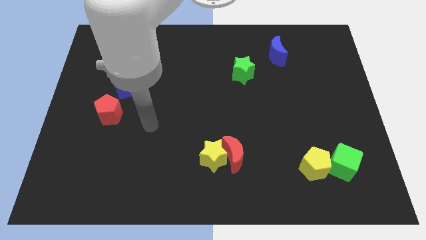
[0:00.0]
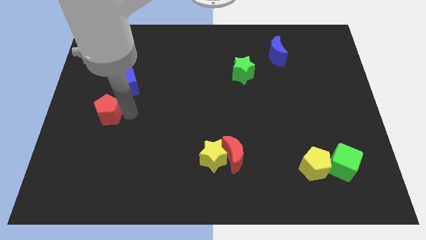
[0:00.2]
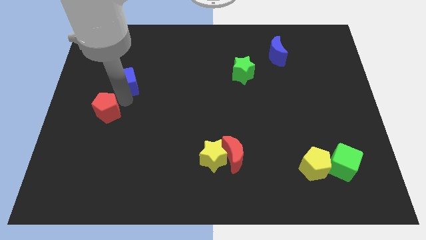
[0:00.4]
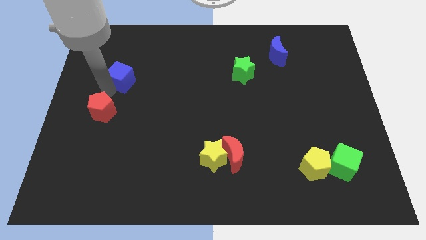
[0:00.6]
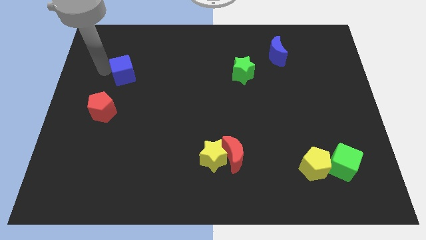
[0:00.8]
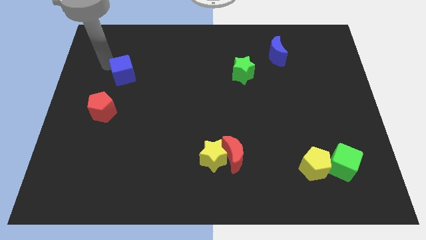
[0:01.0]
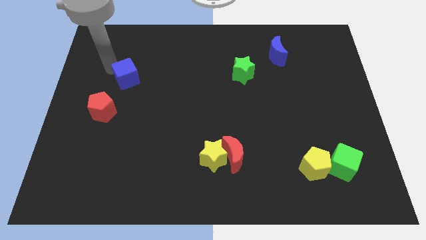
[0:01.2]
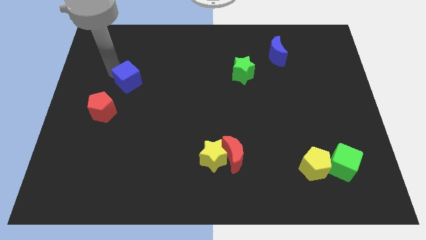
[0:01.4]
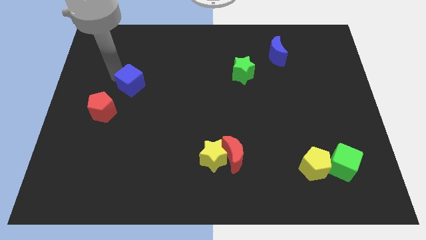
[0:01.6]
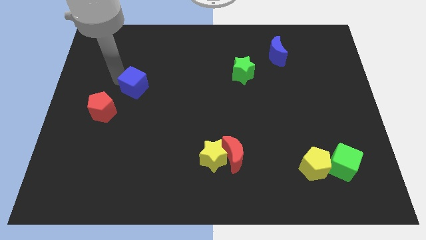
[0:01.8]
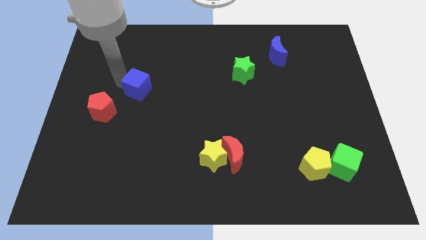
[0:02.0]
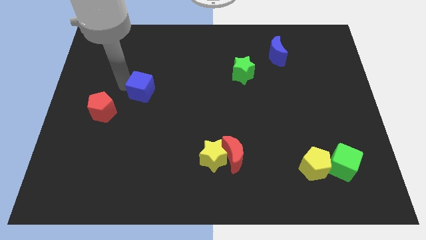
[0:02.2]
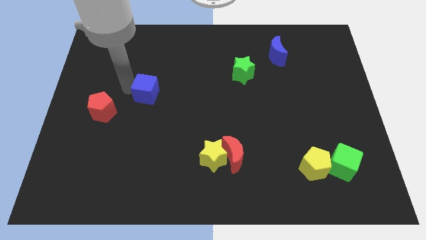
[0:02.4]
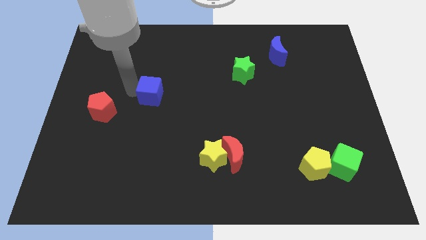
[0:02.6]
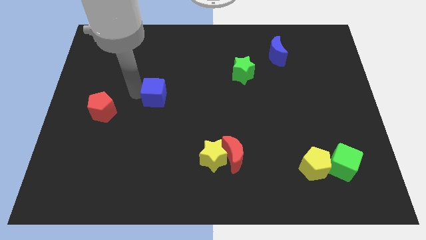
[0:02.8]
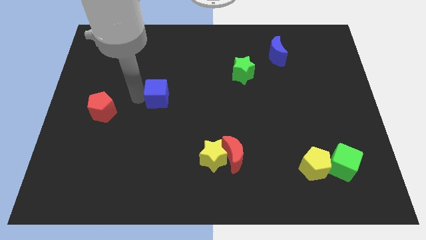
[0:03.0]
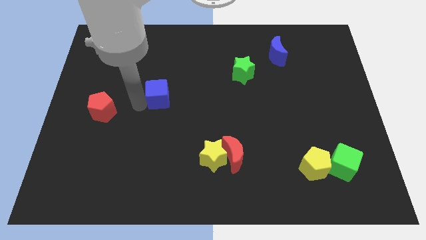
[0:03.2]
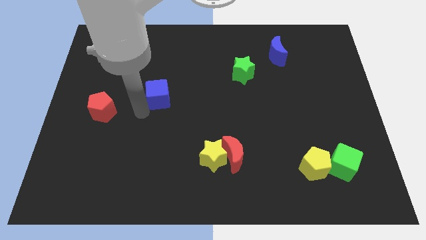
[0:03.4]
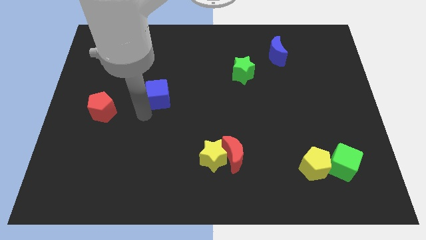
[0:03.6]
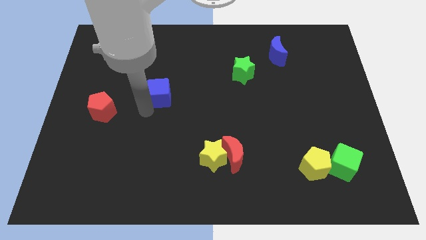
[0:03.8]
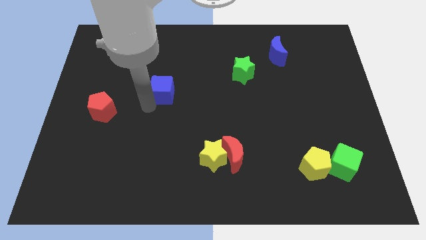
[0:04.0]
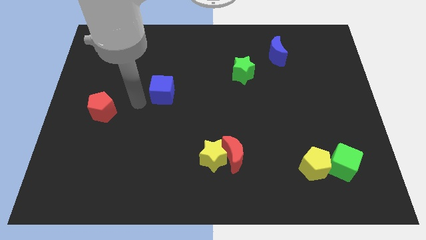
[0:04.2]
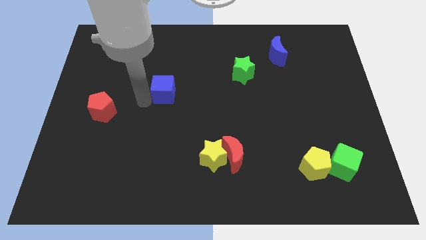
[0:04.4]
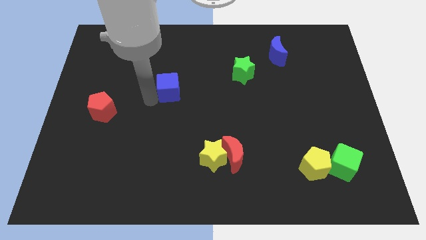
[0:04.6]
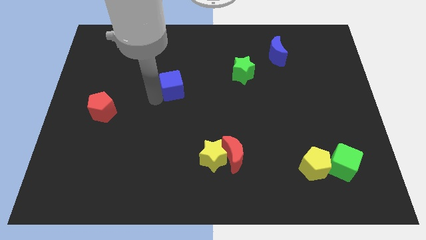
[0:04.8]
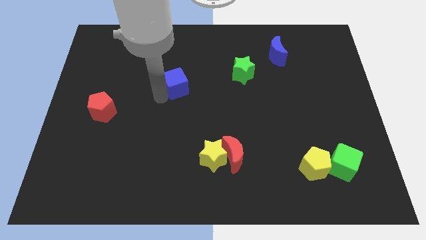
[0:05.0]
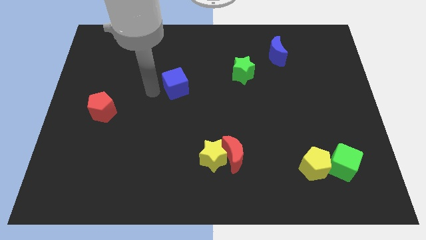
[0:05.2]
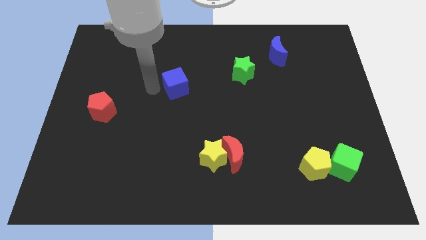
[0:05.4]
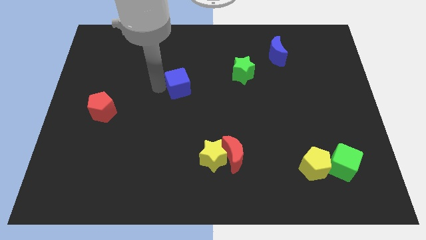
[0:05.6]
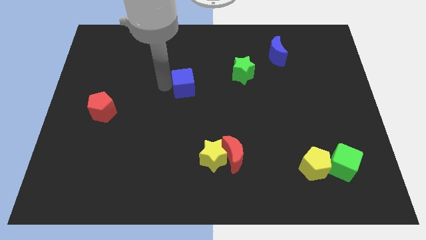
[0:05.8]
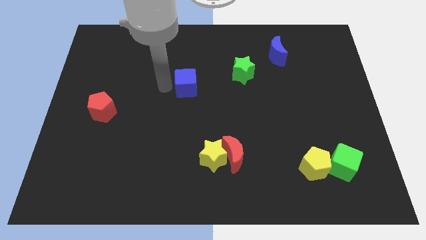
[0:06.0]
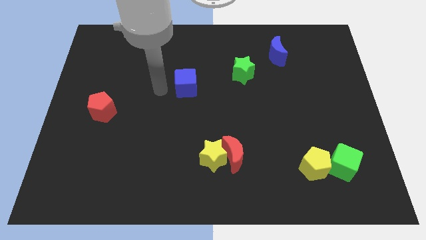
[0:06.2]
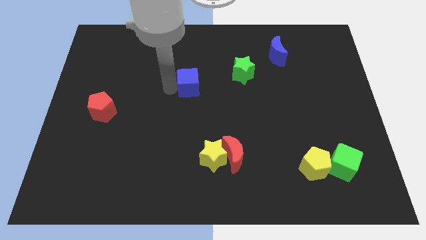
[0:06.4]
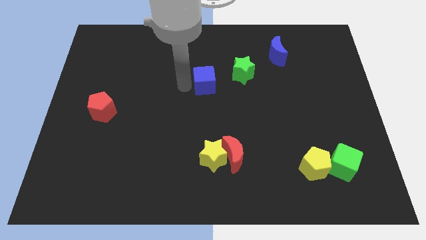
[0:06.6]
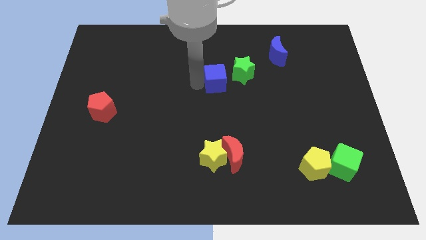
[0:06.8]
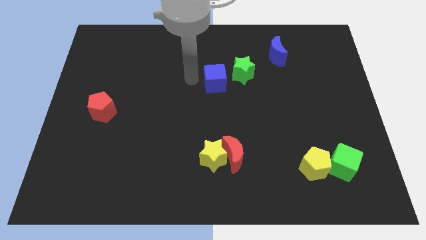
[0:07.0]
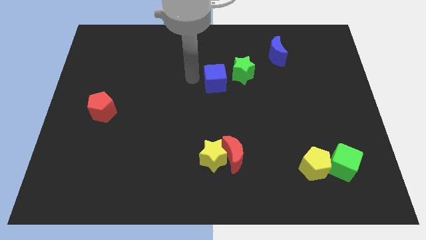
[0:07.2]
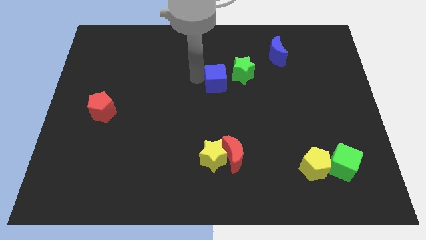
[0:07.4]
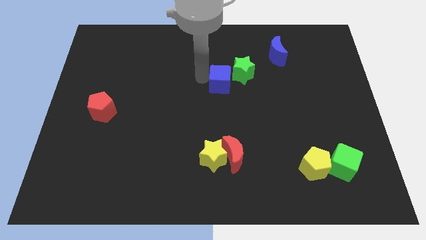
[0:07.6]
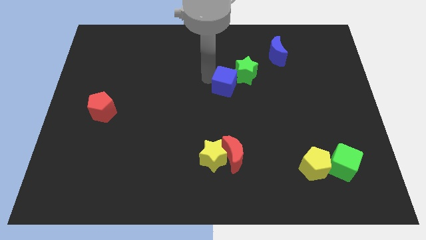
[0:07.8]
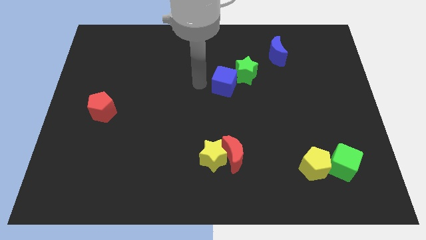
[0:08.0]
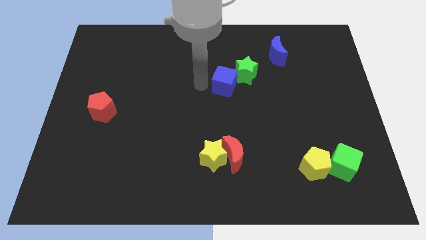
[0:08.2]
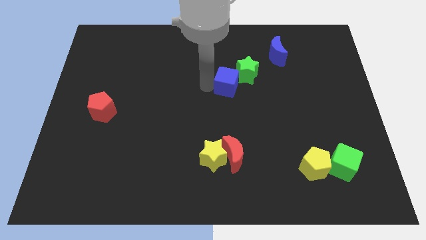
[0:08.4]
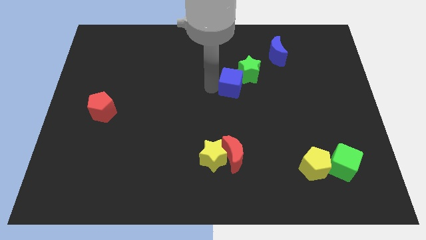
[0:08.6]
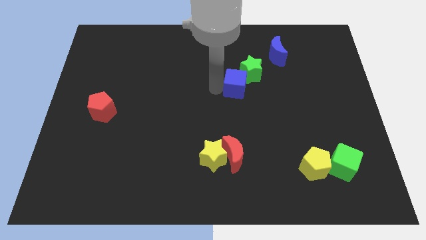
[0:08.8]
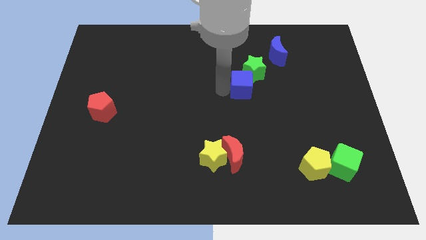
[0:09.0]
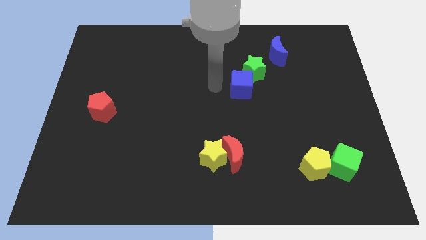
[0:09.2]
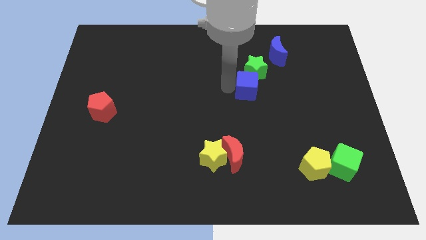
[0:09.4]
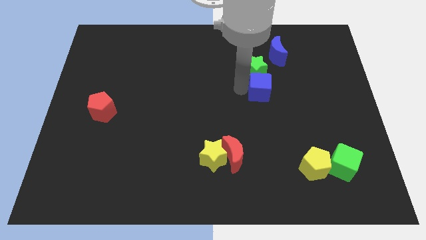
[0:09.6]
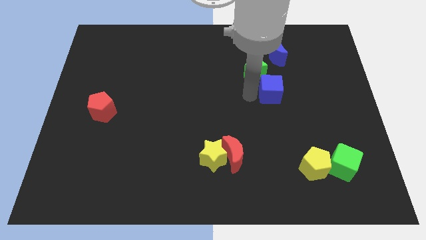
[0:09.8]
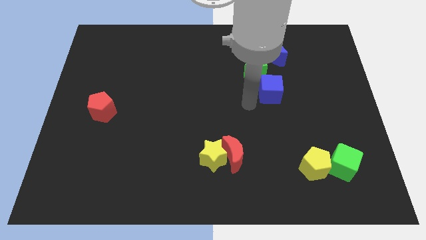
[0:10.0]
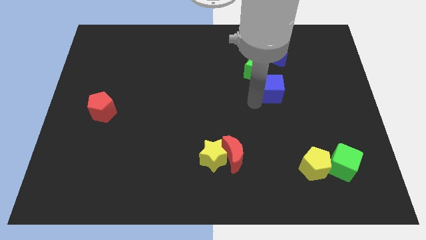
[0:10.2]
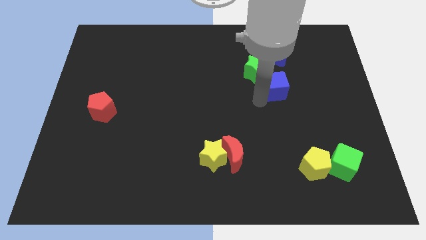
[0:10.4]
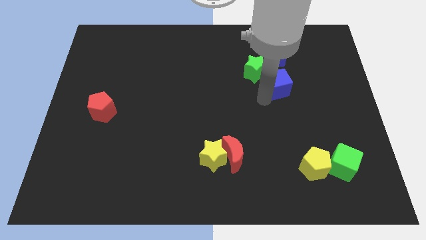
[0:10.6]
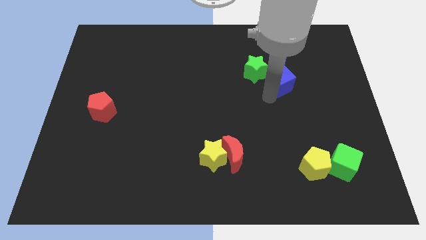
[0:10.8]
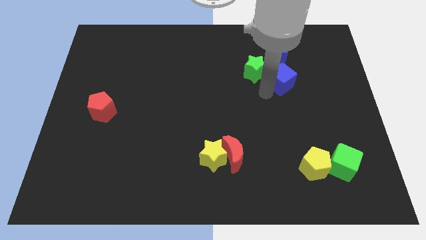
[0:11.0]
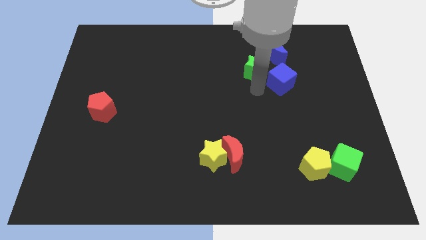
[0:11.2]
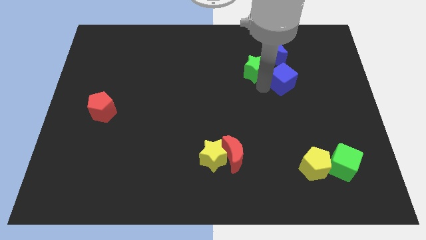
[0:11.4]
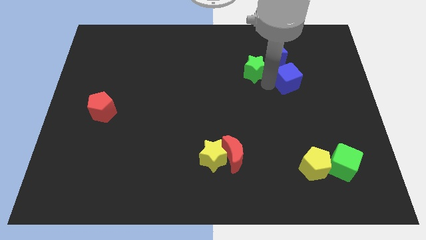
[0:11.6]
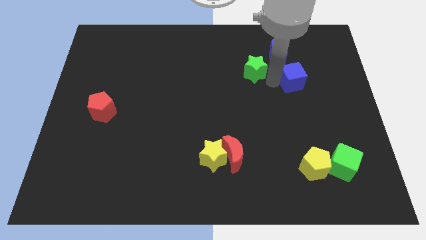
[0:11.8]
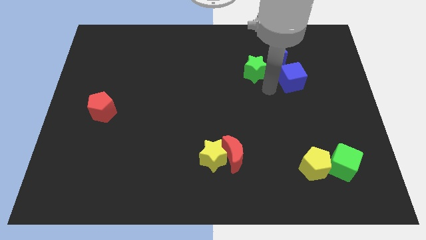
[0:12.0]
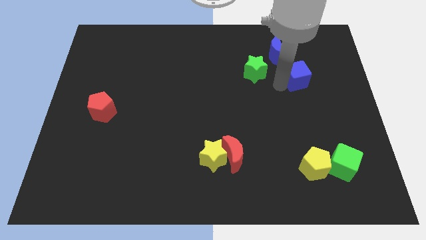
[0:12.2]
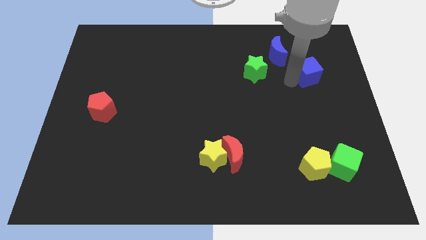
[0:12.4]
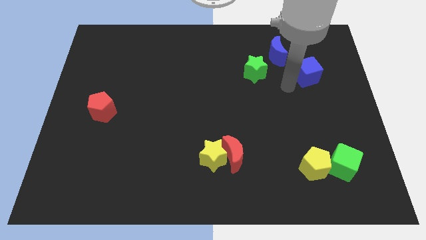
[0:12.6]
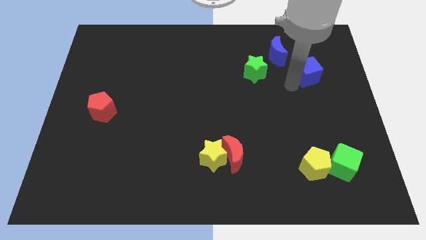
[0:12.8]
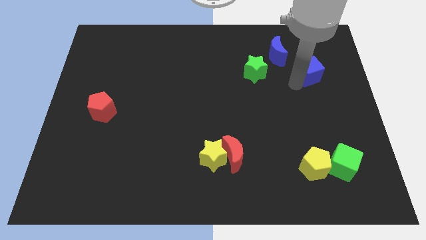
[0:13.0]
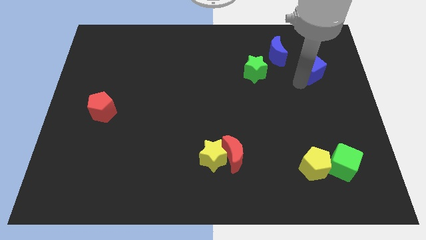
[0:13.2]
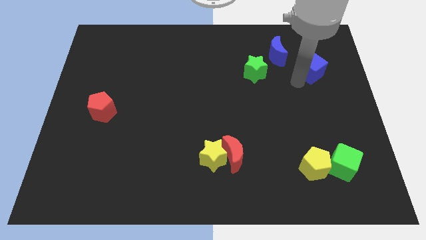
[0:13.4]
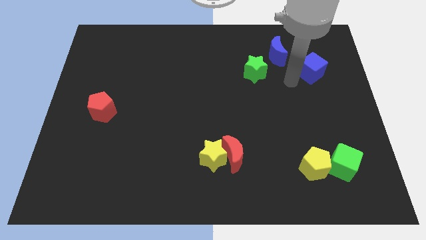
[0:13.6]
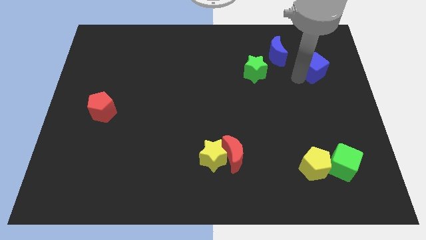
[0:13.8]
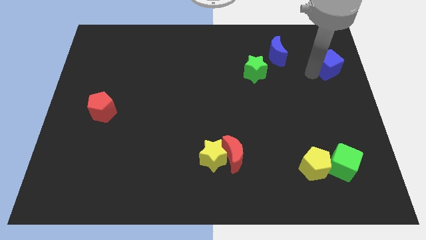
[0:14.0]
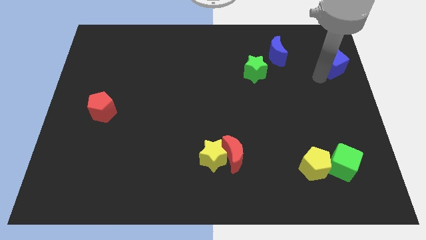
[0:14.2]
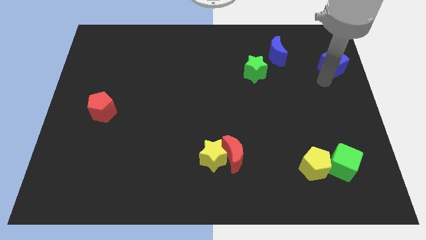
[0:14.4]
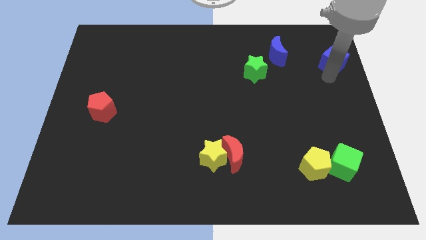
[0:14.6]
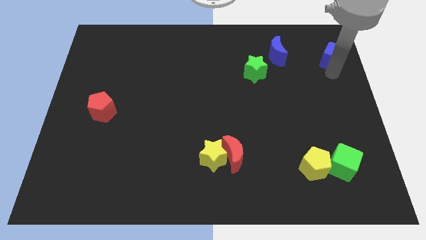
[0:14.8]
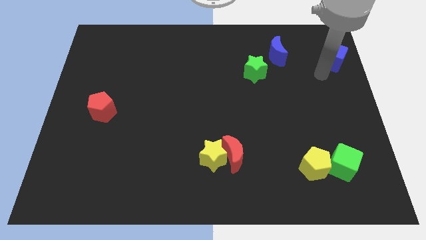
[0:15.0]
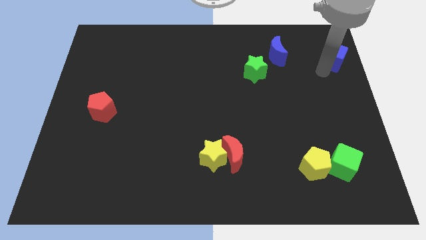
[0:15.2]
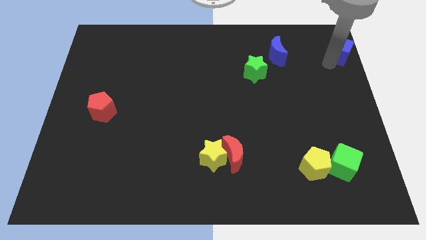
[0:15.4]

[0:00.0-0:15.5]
slide the blue cube to the top right of the board
